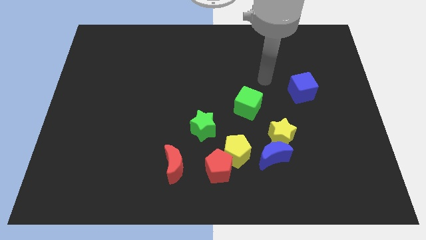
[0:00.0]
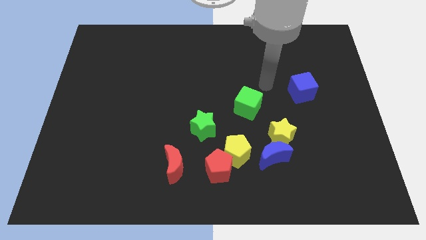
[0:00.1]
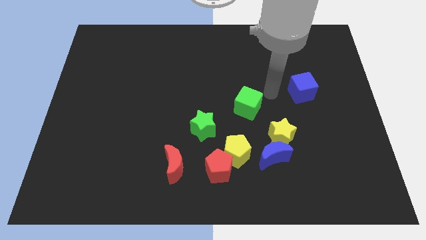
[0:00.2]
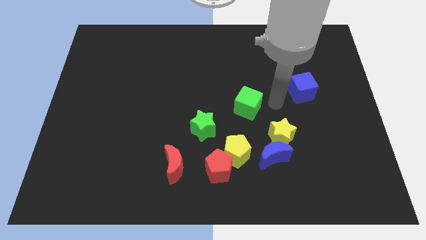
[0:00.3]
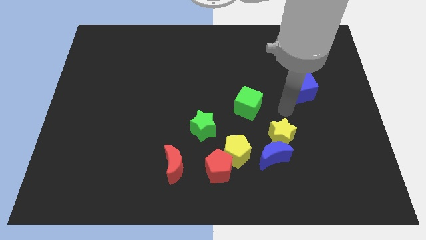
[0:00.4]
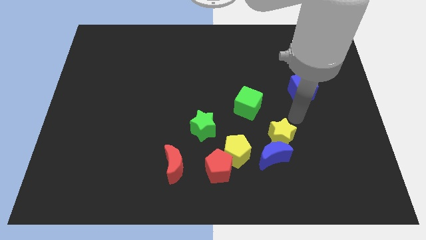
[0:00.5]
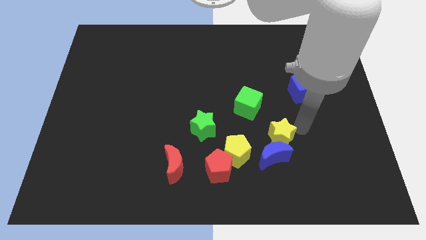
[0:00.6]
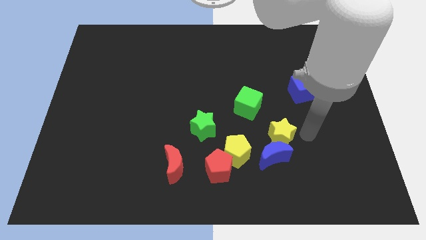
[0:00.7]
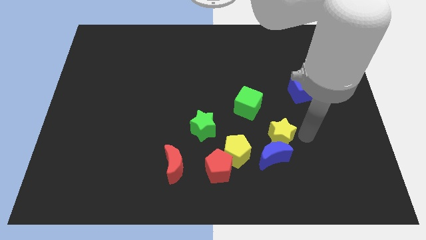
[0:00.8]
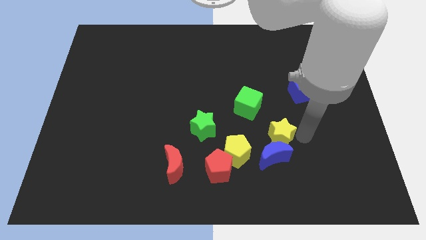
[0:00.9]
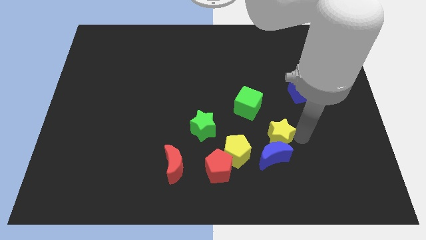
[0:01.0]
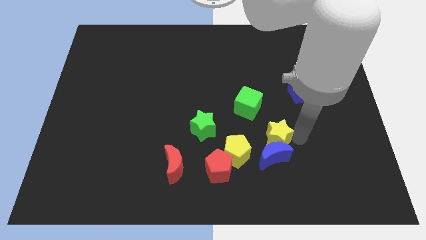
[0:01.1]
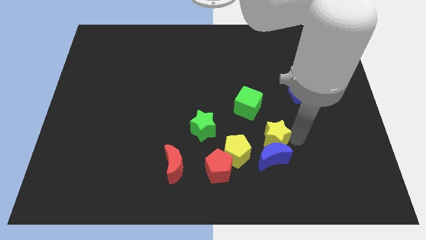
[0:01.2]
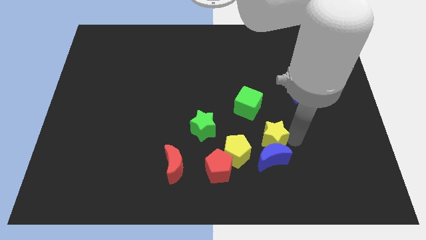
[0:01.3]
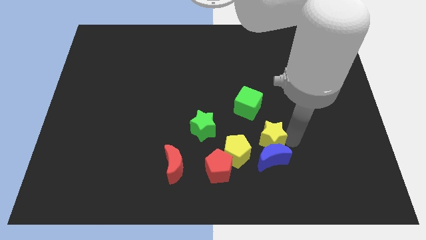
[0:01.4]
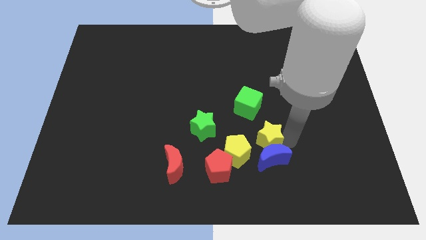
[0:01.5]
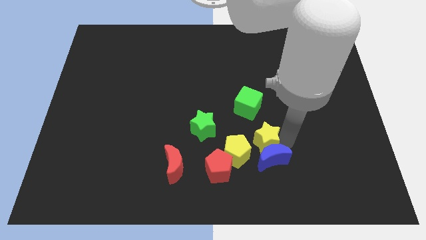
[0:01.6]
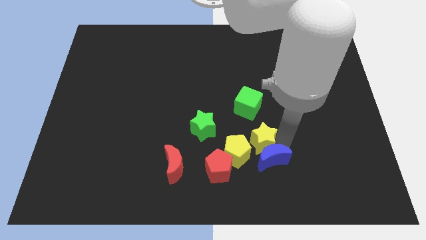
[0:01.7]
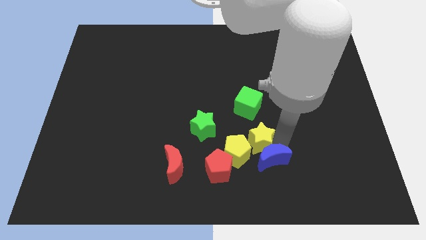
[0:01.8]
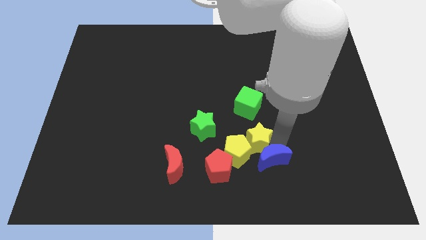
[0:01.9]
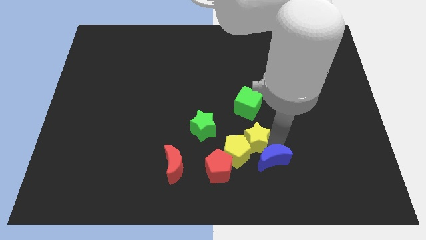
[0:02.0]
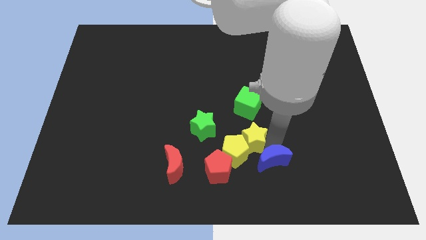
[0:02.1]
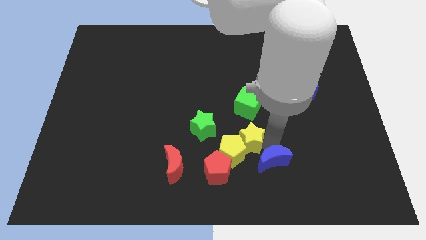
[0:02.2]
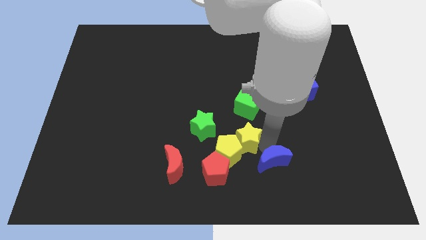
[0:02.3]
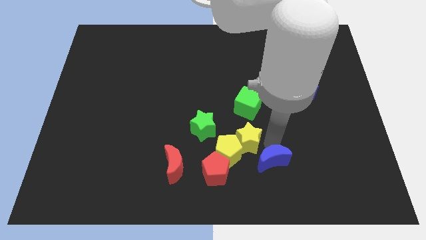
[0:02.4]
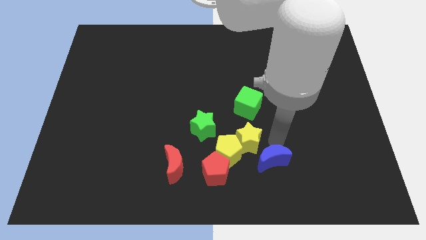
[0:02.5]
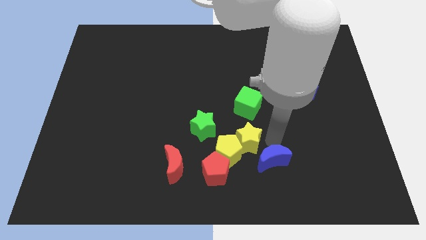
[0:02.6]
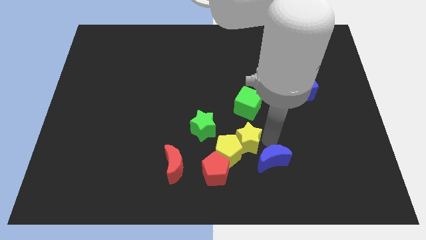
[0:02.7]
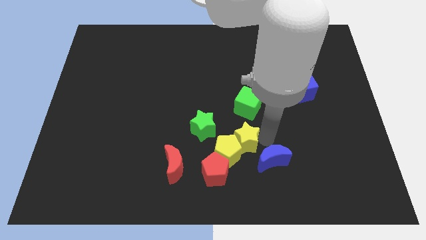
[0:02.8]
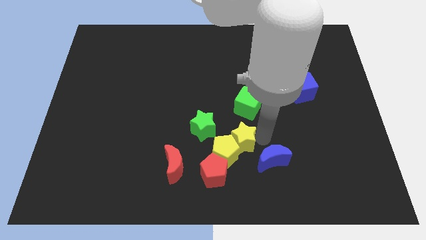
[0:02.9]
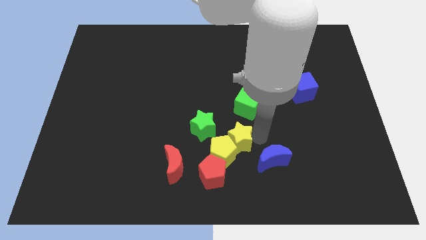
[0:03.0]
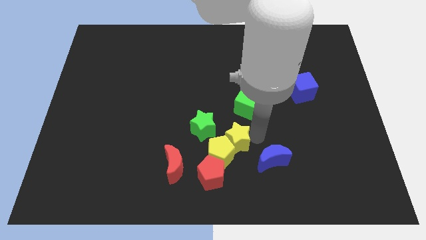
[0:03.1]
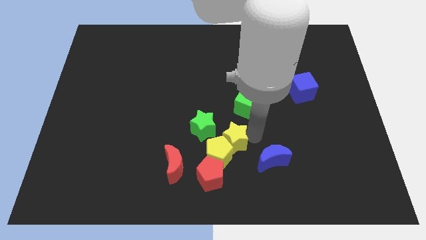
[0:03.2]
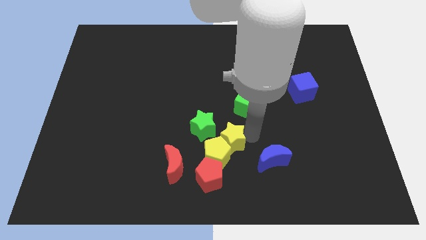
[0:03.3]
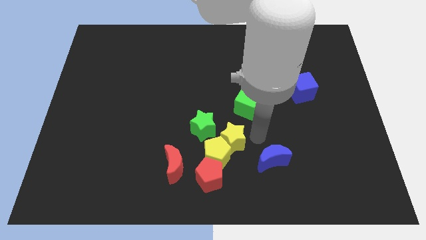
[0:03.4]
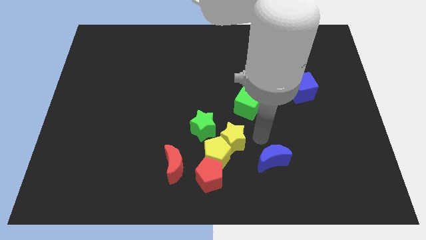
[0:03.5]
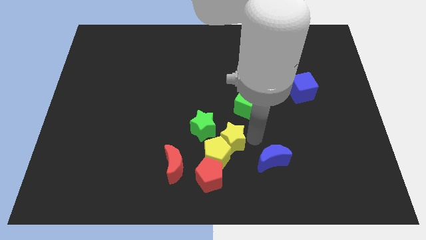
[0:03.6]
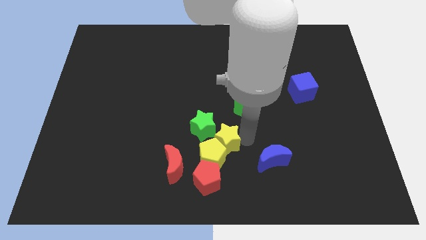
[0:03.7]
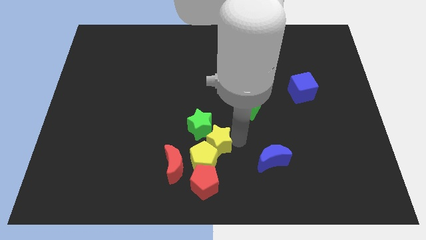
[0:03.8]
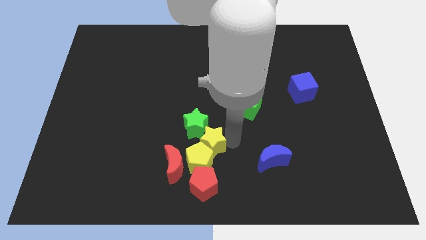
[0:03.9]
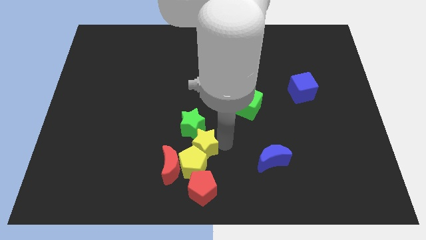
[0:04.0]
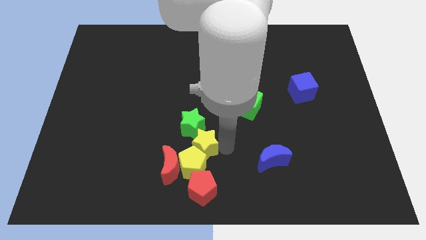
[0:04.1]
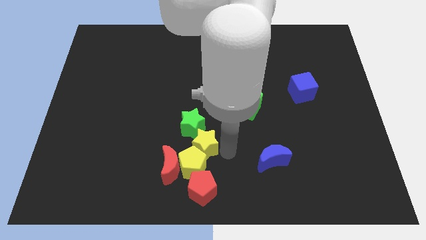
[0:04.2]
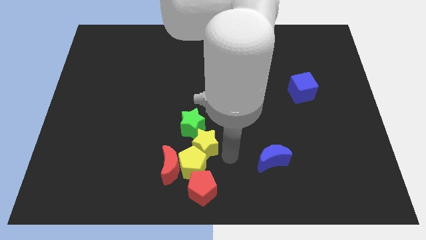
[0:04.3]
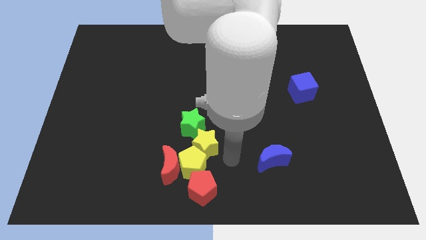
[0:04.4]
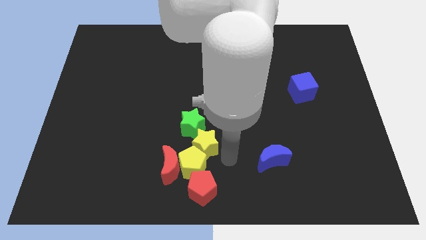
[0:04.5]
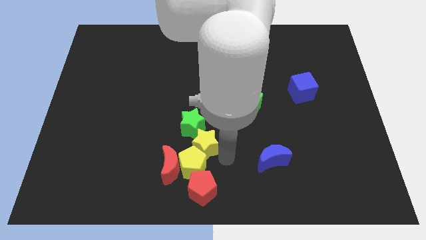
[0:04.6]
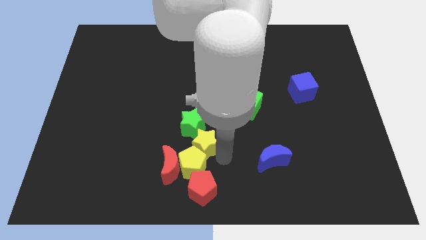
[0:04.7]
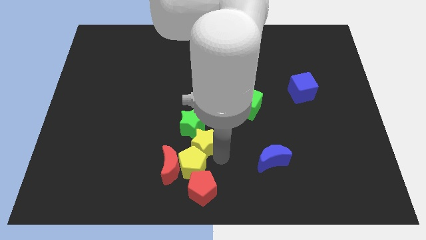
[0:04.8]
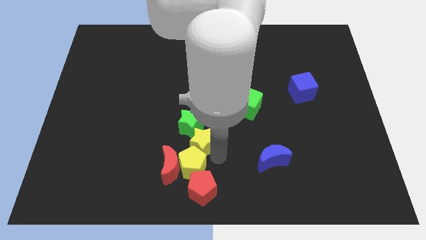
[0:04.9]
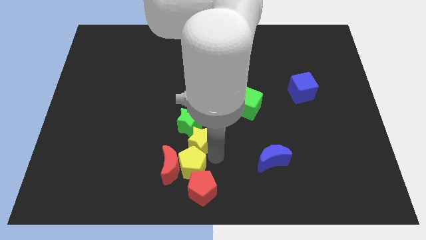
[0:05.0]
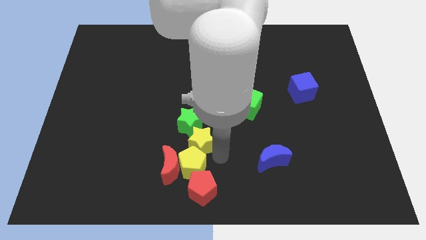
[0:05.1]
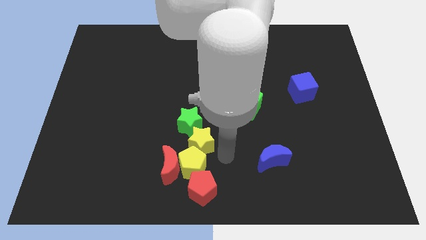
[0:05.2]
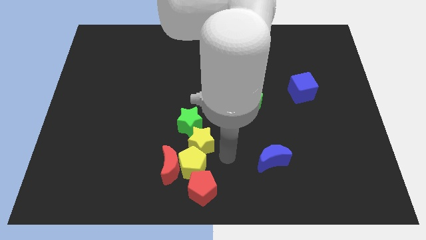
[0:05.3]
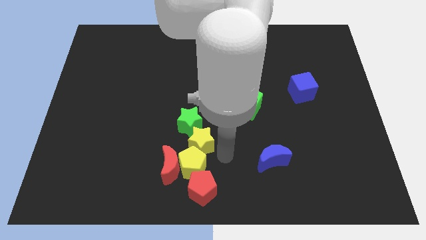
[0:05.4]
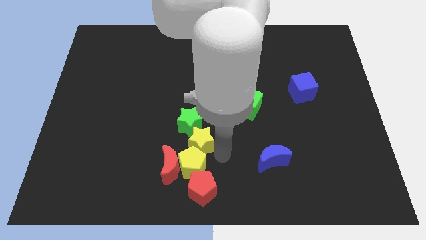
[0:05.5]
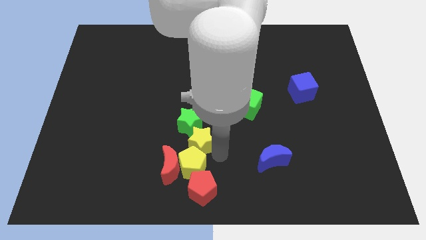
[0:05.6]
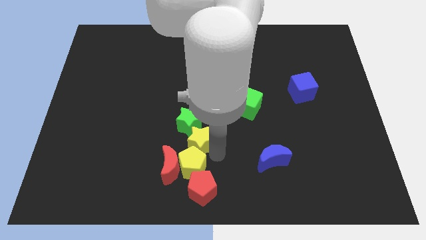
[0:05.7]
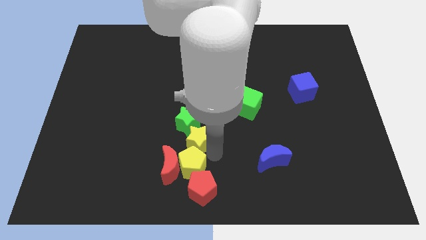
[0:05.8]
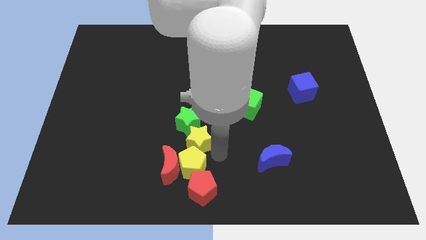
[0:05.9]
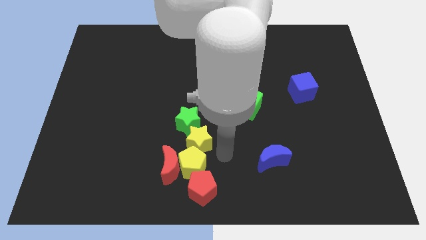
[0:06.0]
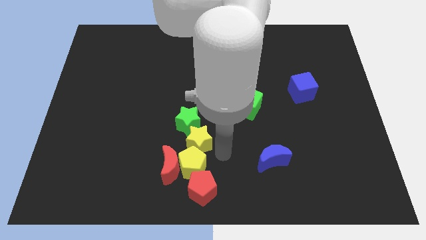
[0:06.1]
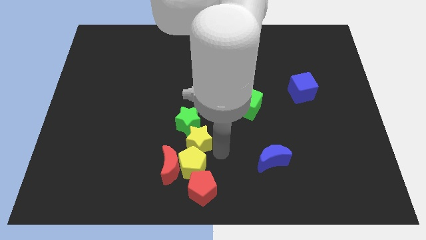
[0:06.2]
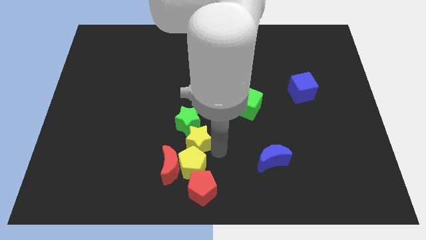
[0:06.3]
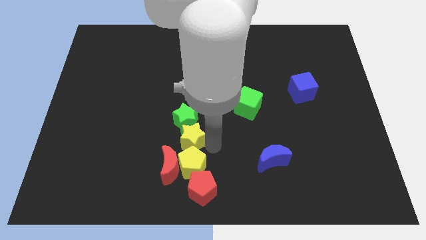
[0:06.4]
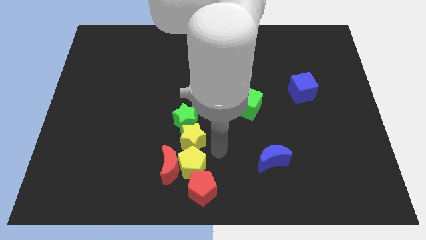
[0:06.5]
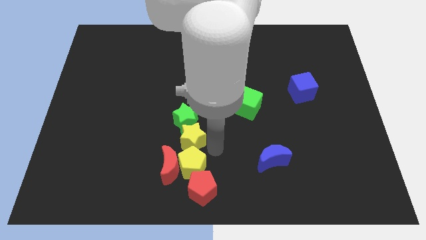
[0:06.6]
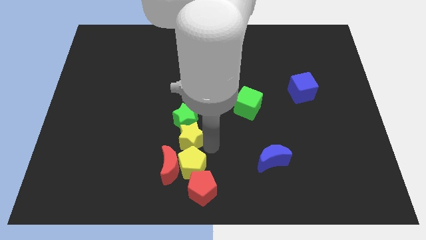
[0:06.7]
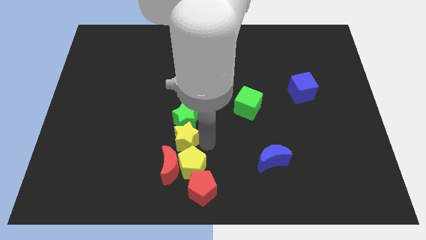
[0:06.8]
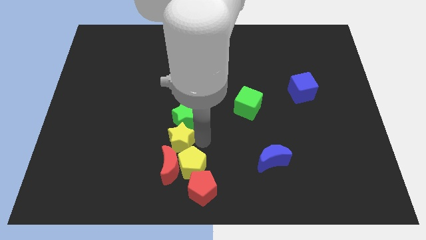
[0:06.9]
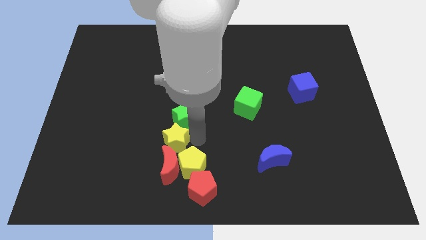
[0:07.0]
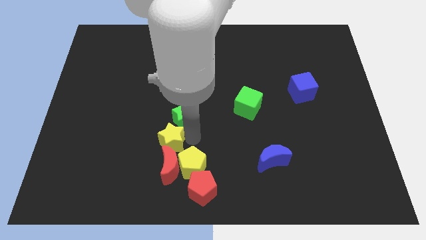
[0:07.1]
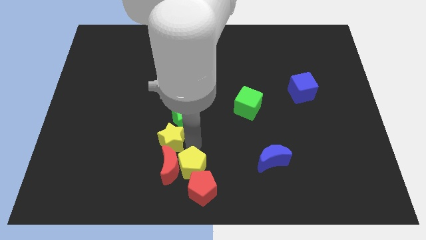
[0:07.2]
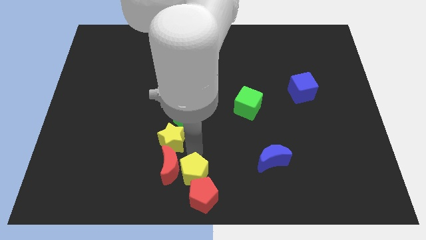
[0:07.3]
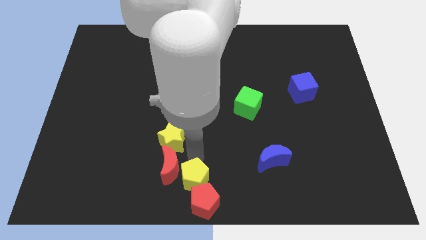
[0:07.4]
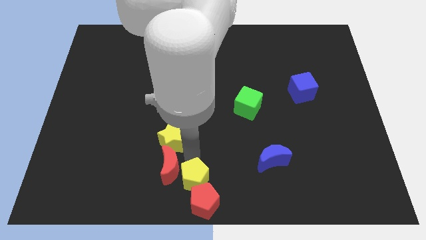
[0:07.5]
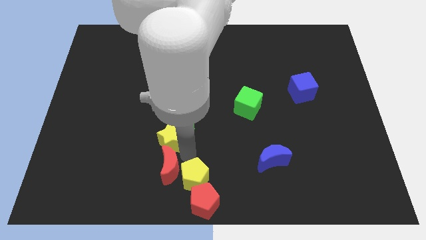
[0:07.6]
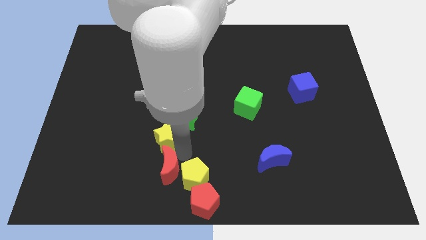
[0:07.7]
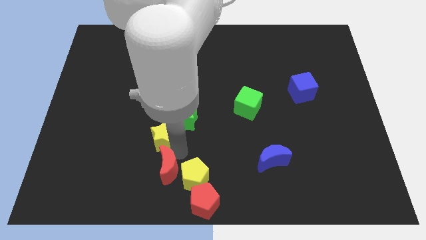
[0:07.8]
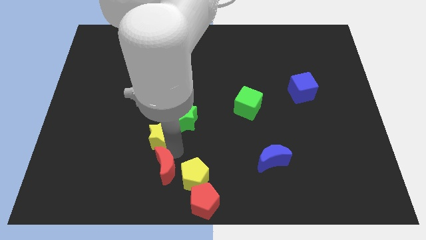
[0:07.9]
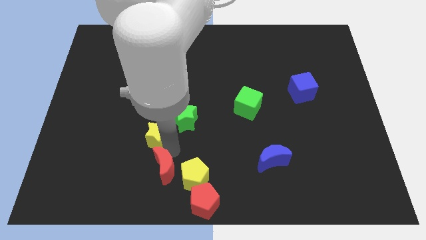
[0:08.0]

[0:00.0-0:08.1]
move the yellow star to the left of the green star
